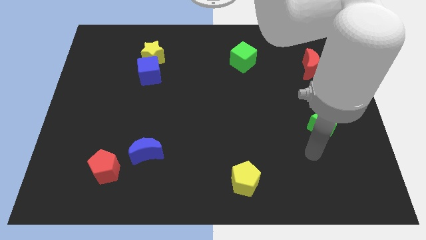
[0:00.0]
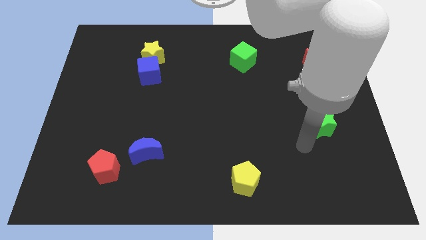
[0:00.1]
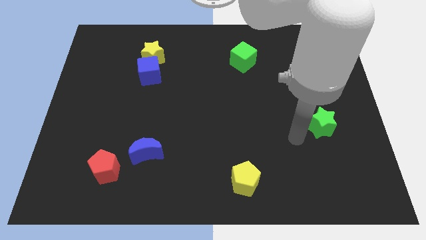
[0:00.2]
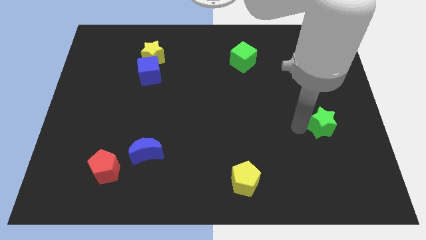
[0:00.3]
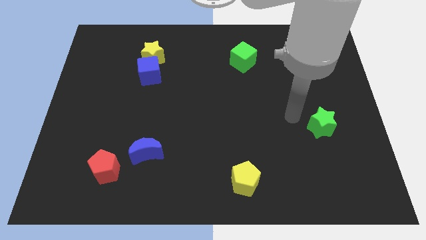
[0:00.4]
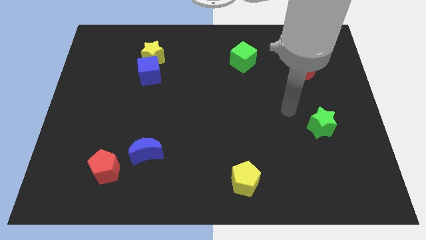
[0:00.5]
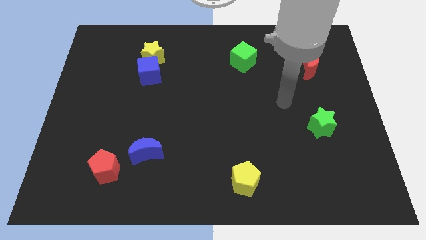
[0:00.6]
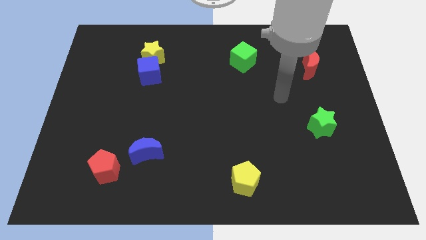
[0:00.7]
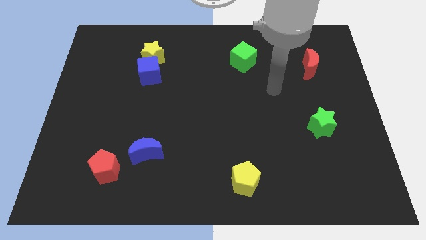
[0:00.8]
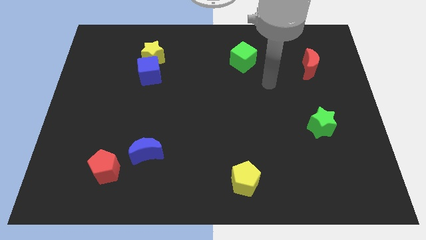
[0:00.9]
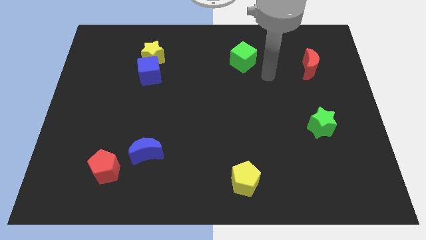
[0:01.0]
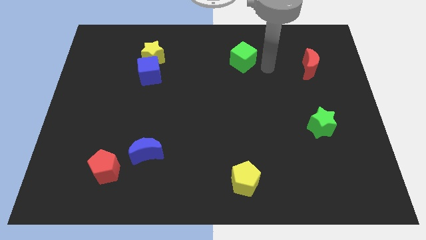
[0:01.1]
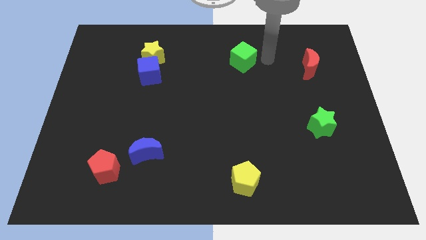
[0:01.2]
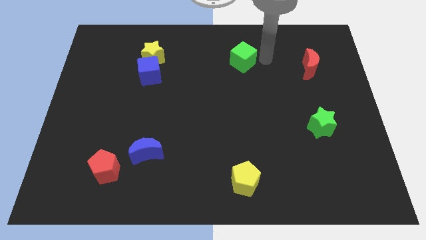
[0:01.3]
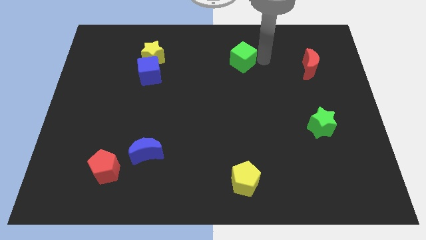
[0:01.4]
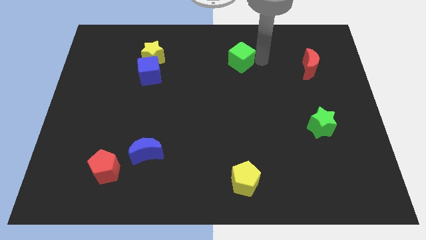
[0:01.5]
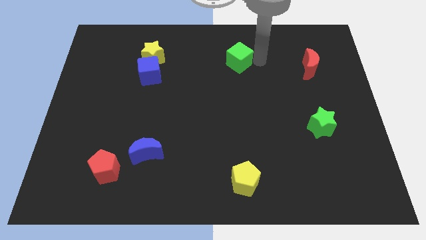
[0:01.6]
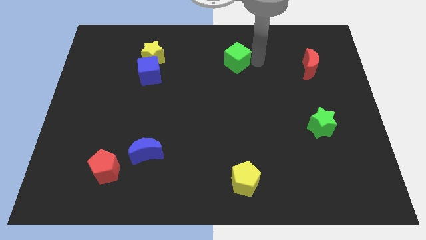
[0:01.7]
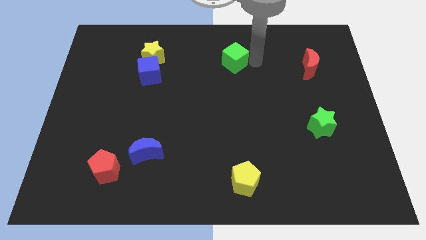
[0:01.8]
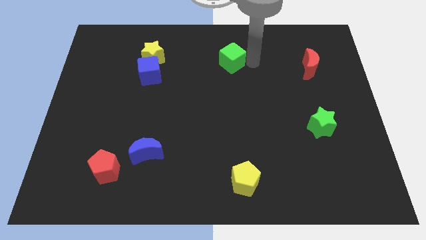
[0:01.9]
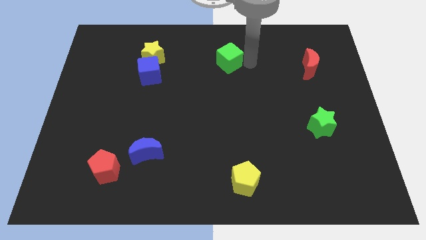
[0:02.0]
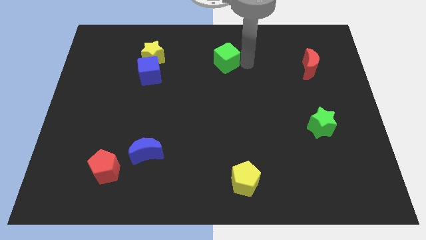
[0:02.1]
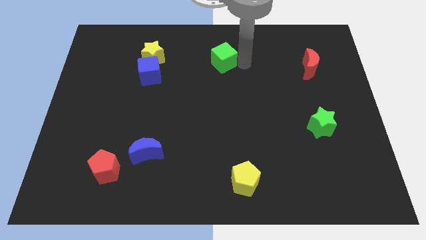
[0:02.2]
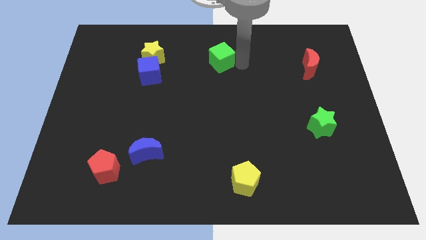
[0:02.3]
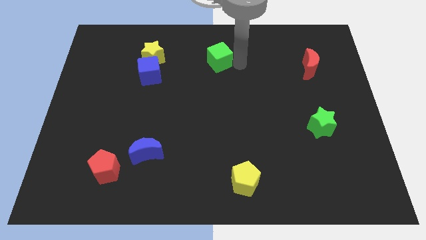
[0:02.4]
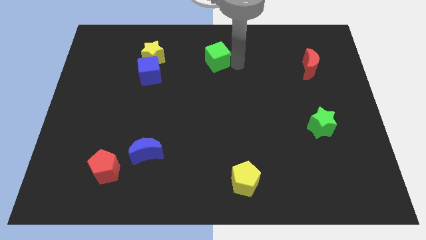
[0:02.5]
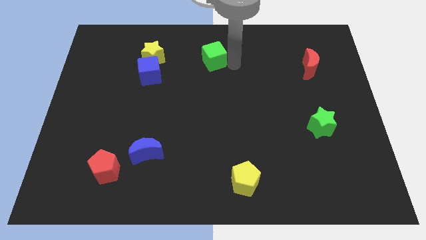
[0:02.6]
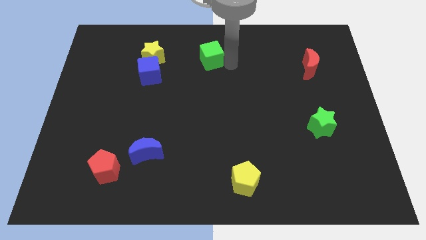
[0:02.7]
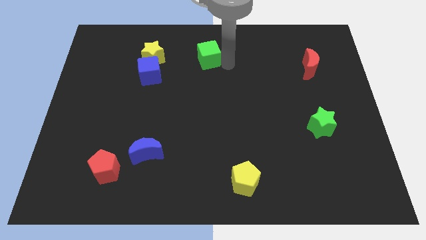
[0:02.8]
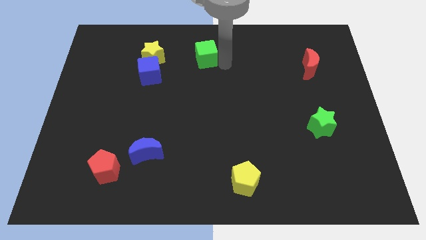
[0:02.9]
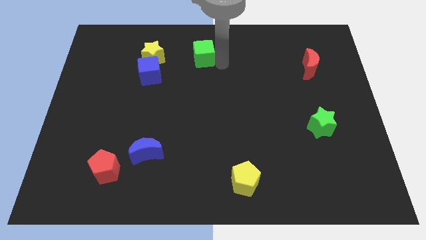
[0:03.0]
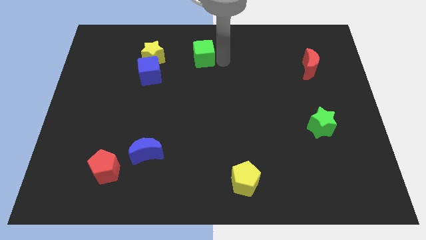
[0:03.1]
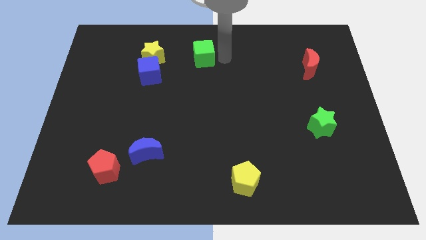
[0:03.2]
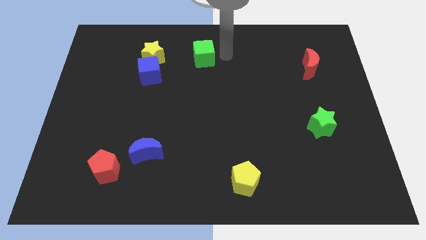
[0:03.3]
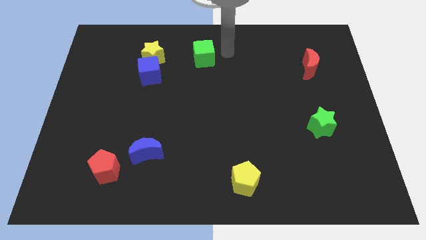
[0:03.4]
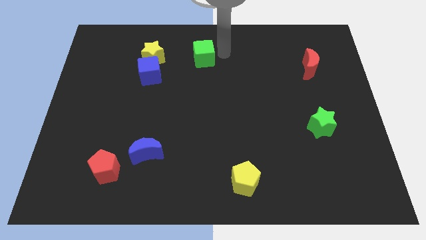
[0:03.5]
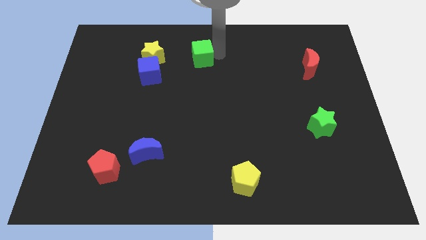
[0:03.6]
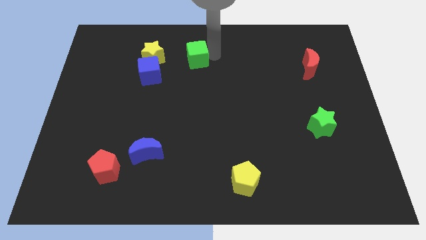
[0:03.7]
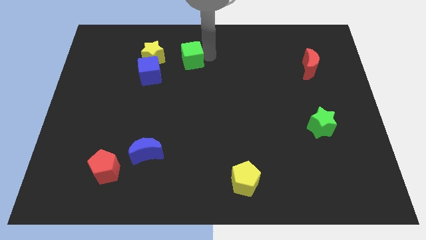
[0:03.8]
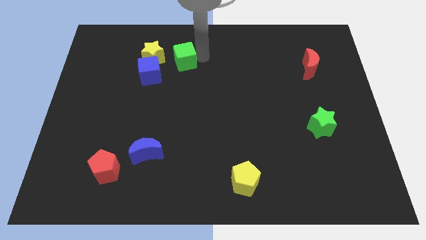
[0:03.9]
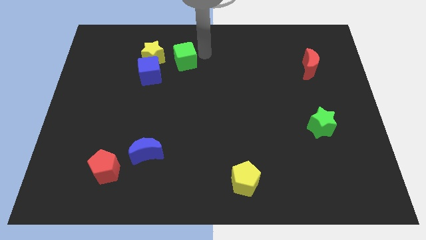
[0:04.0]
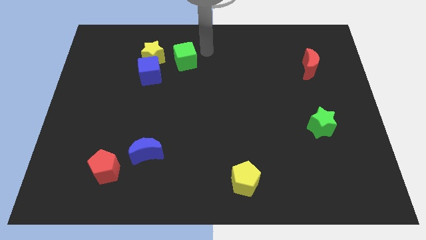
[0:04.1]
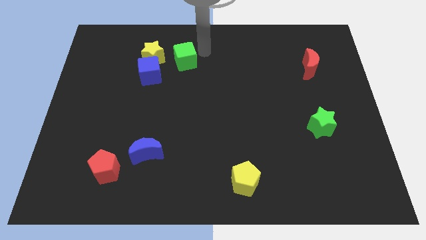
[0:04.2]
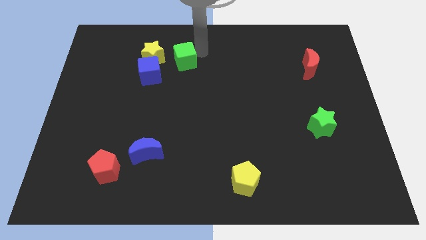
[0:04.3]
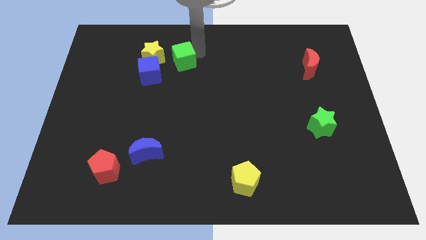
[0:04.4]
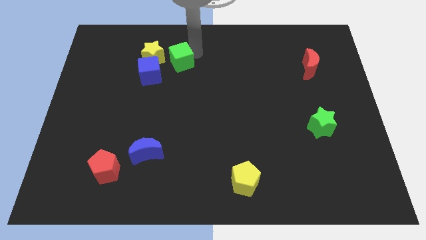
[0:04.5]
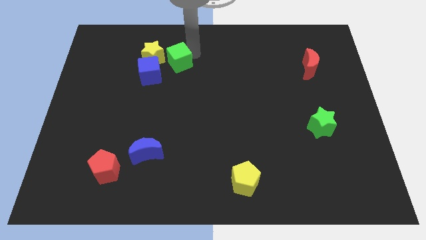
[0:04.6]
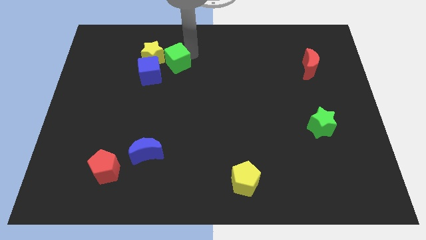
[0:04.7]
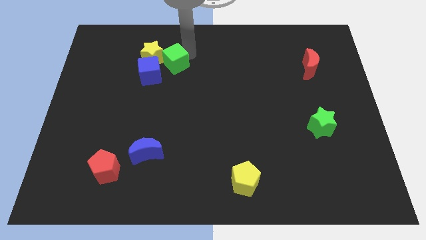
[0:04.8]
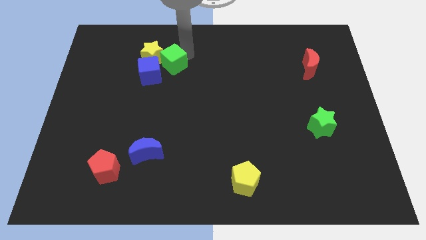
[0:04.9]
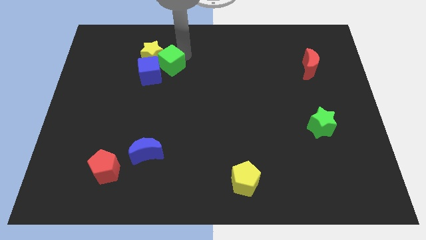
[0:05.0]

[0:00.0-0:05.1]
put the green cube to the blue cube

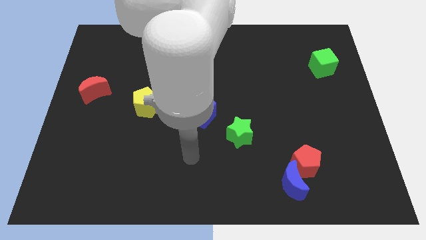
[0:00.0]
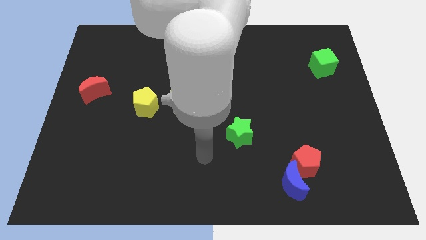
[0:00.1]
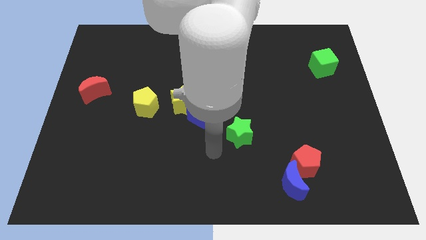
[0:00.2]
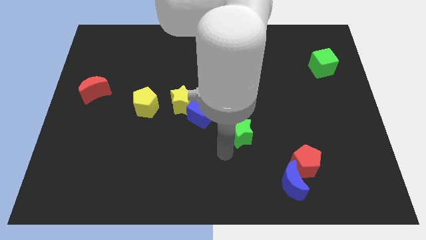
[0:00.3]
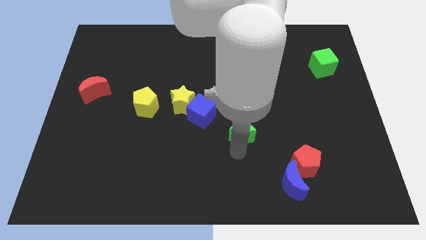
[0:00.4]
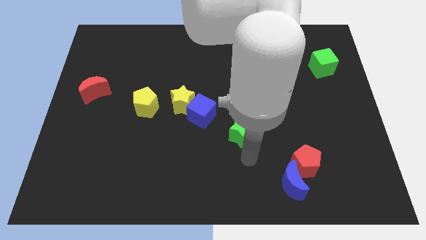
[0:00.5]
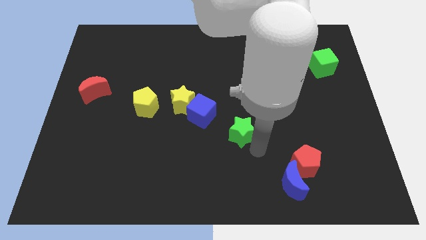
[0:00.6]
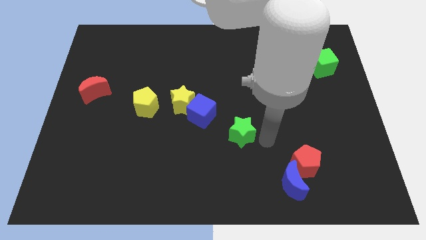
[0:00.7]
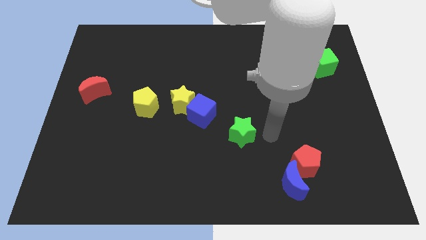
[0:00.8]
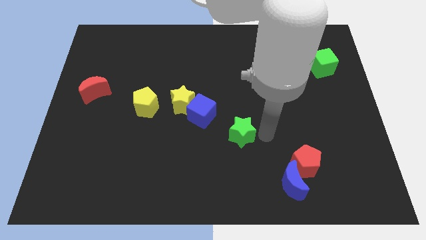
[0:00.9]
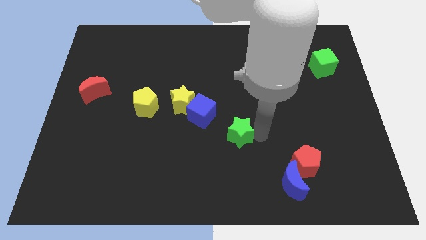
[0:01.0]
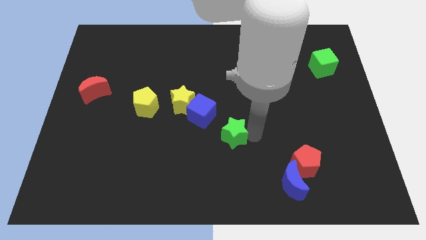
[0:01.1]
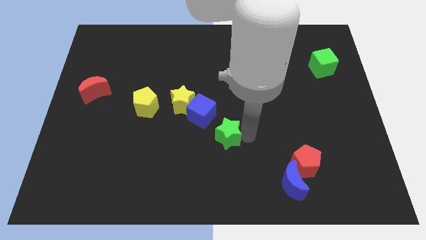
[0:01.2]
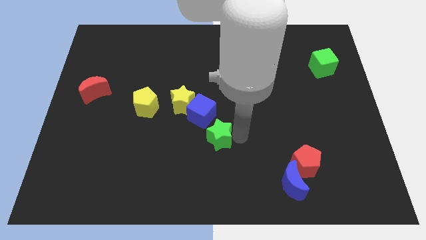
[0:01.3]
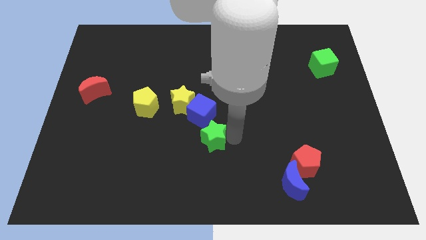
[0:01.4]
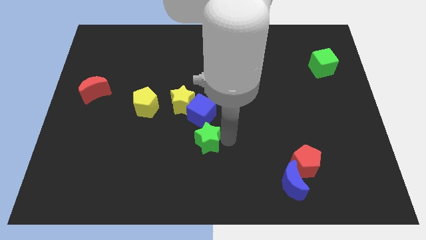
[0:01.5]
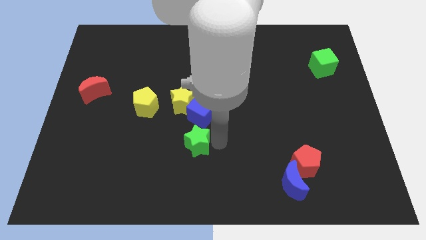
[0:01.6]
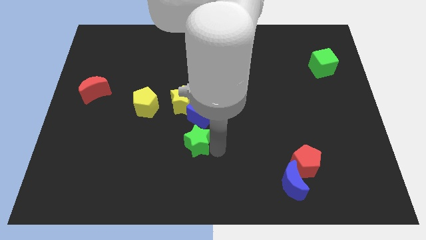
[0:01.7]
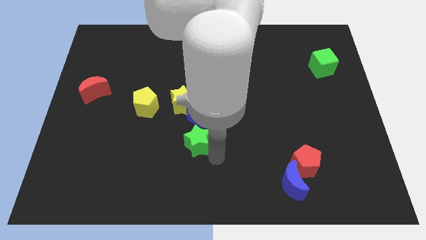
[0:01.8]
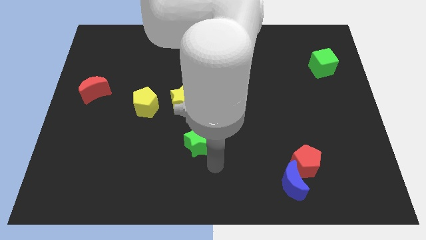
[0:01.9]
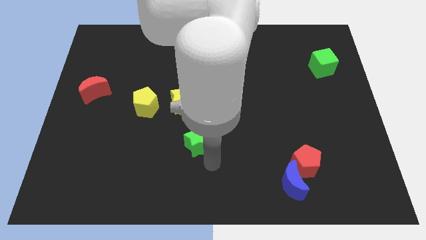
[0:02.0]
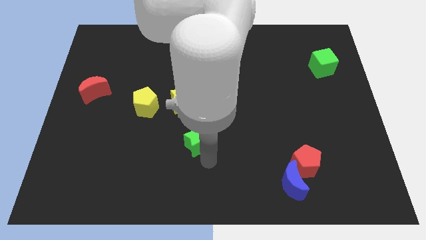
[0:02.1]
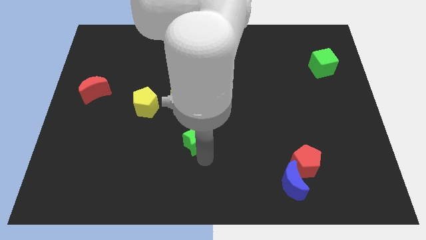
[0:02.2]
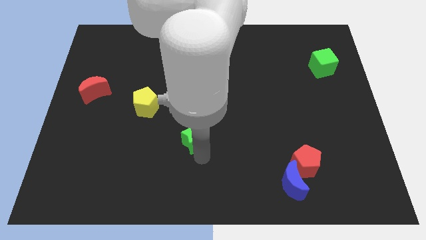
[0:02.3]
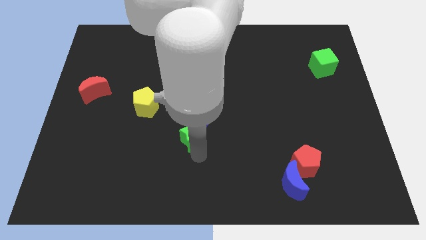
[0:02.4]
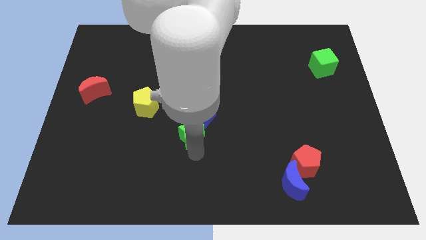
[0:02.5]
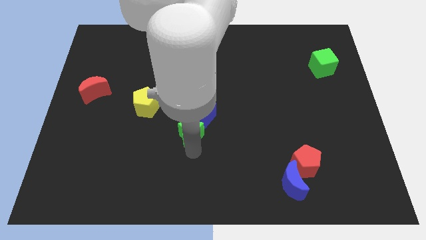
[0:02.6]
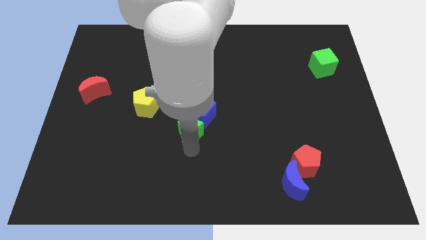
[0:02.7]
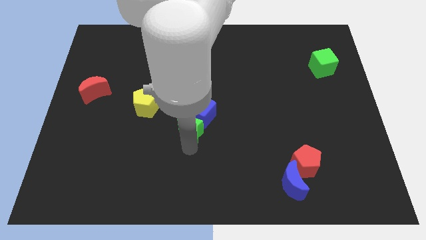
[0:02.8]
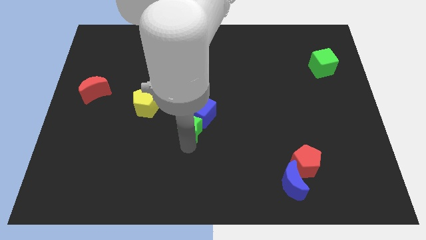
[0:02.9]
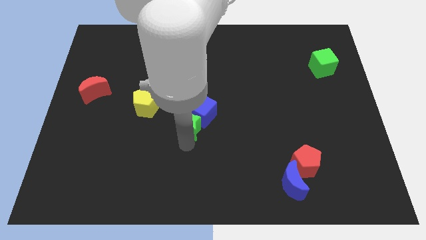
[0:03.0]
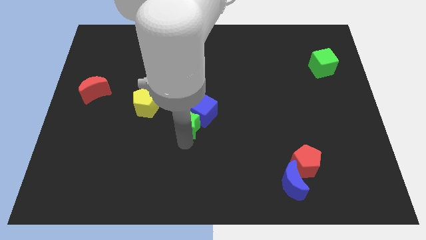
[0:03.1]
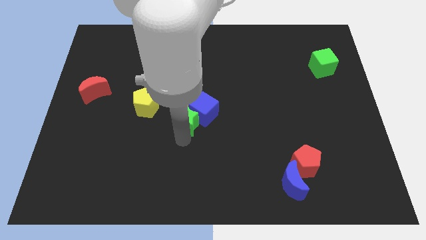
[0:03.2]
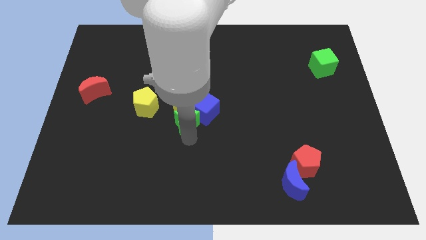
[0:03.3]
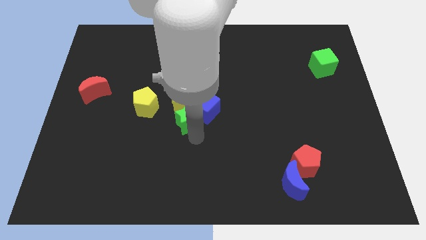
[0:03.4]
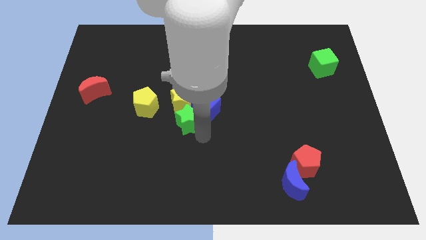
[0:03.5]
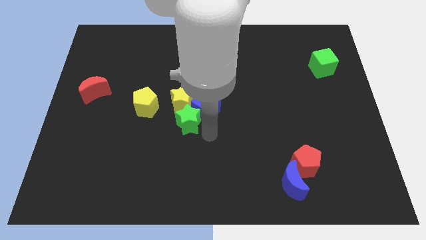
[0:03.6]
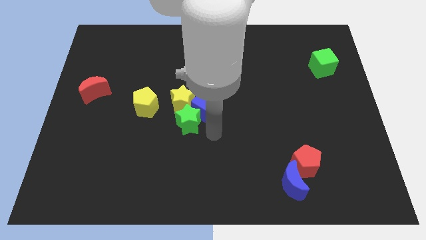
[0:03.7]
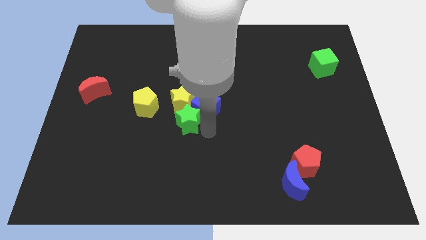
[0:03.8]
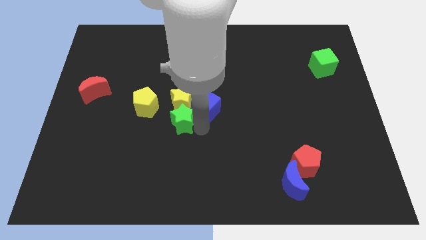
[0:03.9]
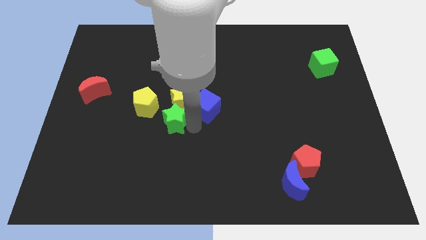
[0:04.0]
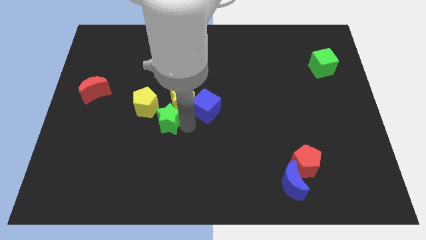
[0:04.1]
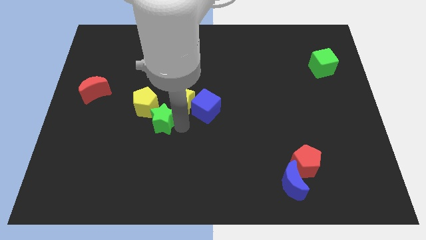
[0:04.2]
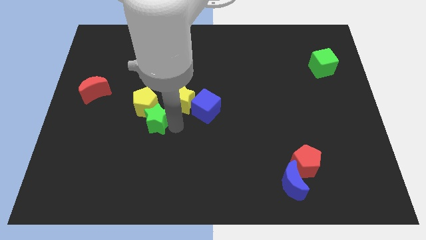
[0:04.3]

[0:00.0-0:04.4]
put the green star towards the yellow pentagon
